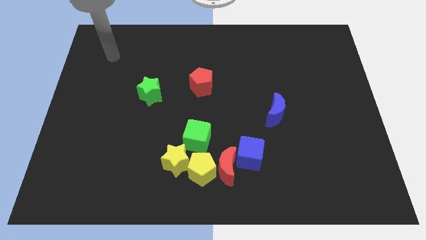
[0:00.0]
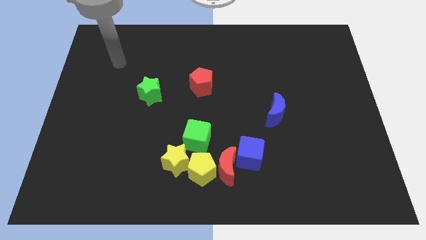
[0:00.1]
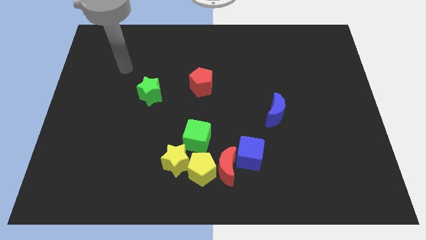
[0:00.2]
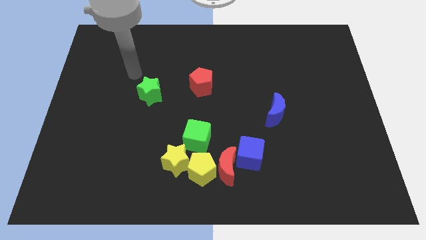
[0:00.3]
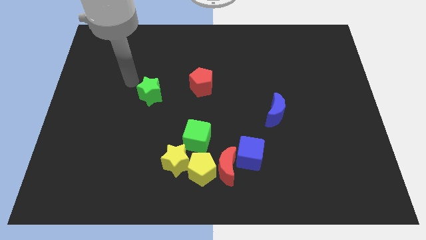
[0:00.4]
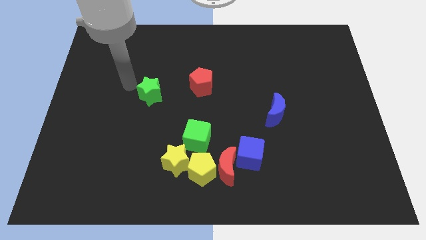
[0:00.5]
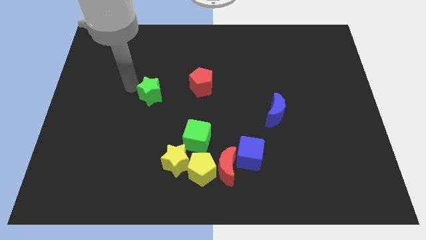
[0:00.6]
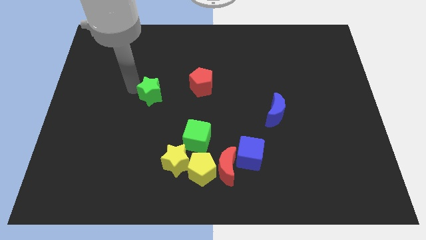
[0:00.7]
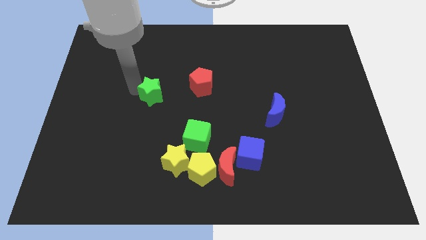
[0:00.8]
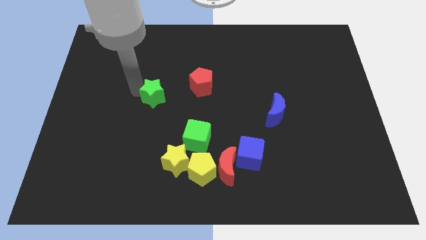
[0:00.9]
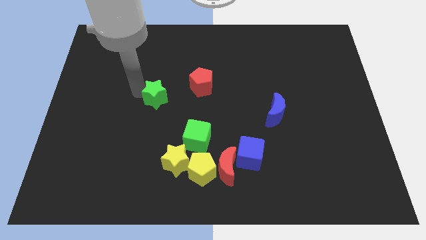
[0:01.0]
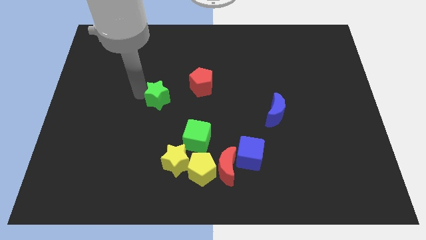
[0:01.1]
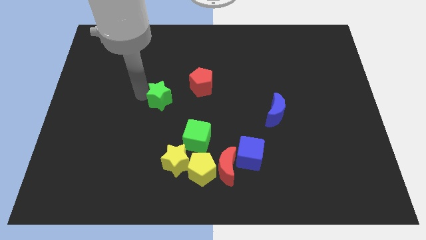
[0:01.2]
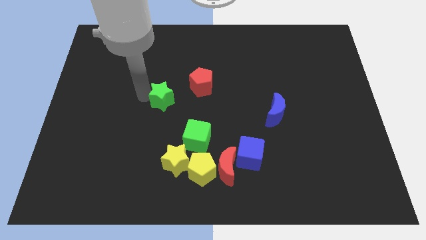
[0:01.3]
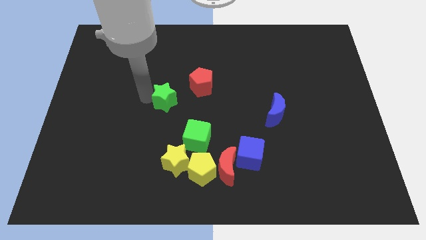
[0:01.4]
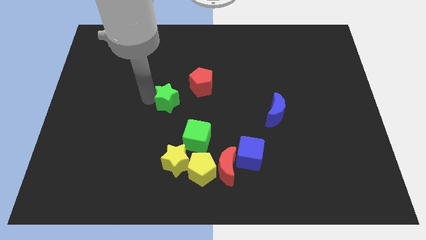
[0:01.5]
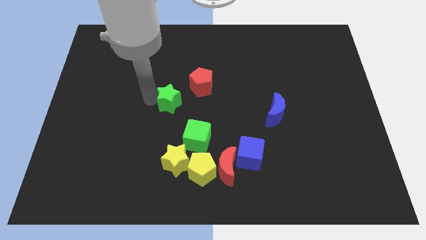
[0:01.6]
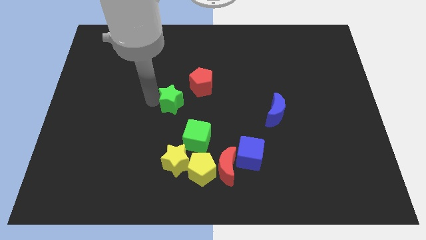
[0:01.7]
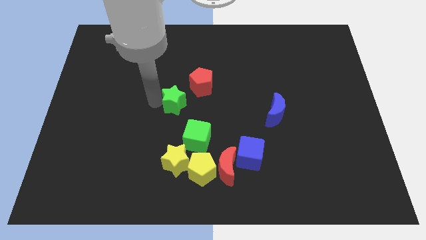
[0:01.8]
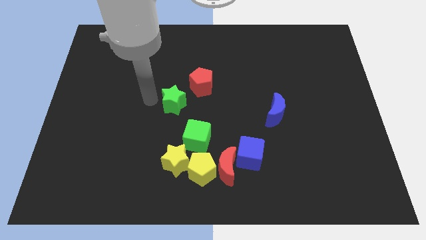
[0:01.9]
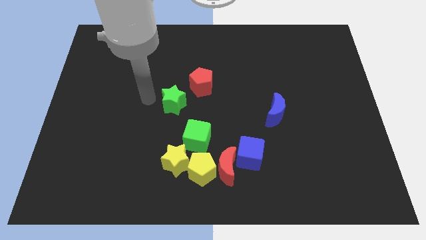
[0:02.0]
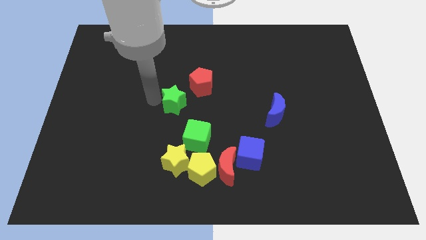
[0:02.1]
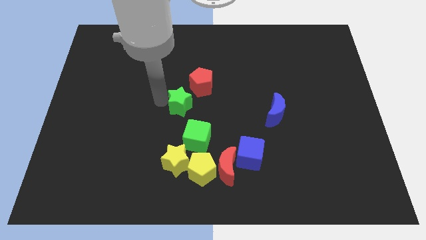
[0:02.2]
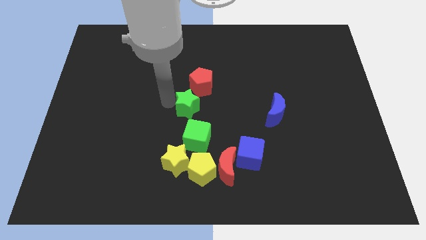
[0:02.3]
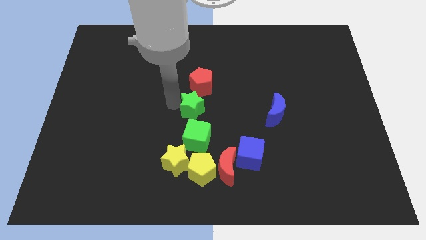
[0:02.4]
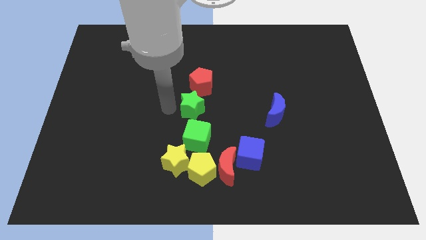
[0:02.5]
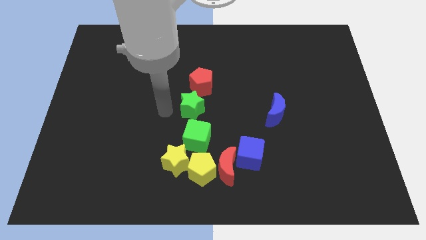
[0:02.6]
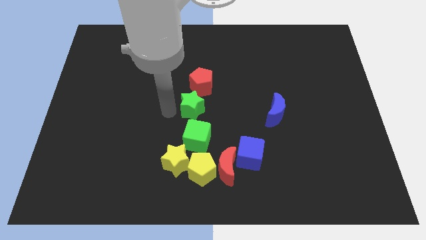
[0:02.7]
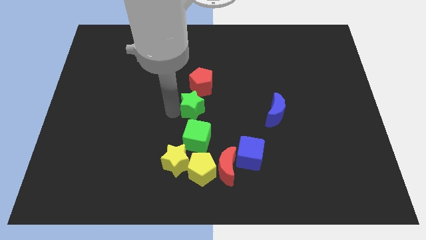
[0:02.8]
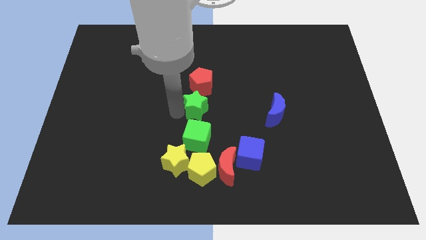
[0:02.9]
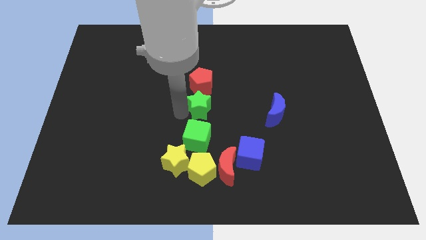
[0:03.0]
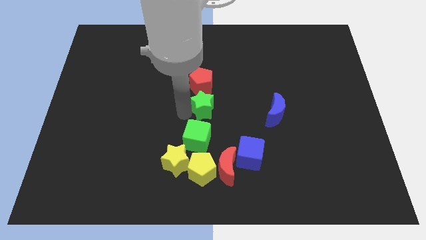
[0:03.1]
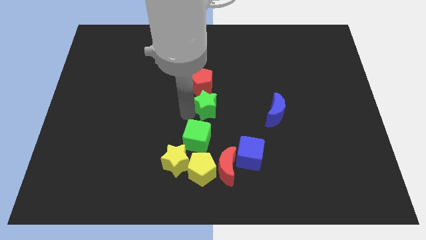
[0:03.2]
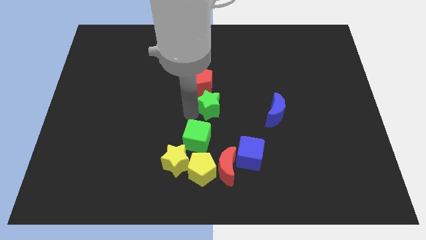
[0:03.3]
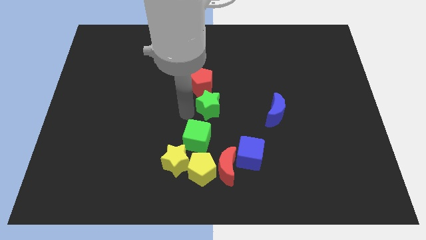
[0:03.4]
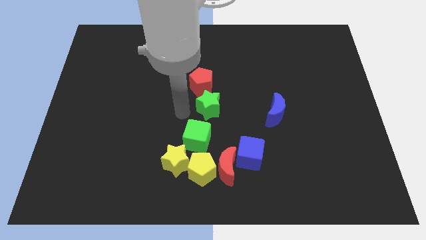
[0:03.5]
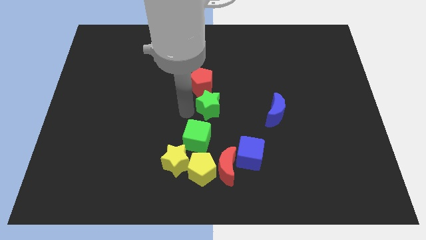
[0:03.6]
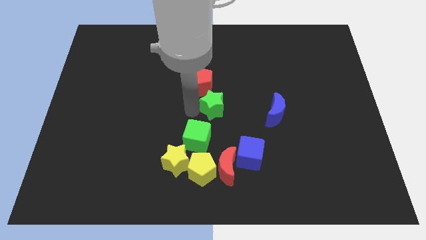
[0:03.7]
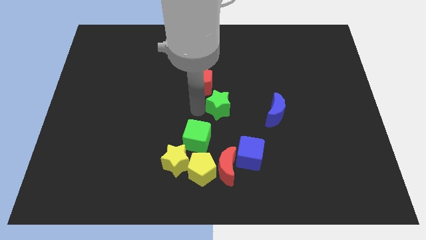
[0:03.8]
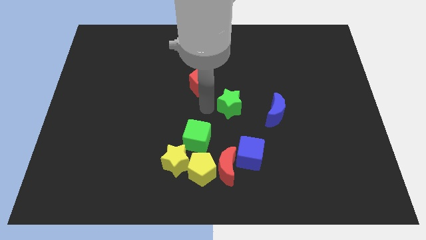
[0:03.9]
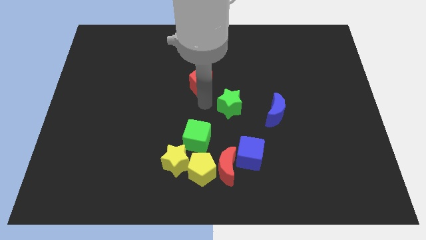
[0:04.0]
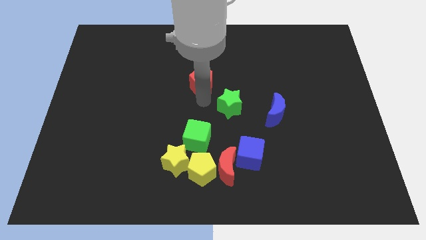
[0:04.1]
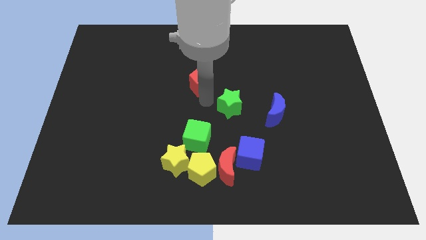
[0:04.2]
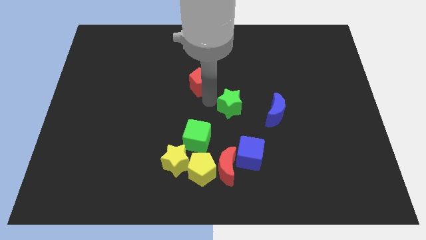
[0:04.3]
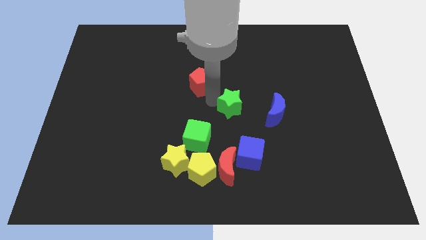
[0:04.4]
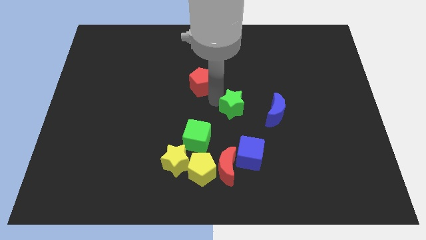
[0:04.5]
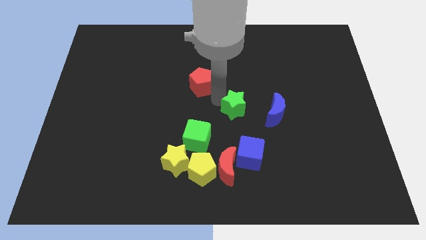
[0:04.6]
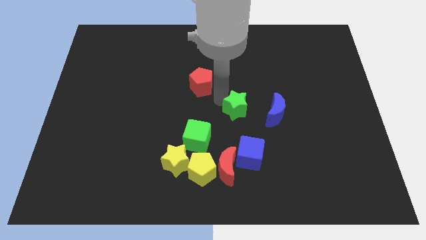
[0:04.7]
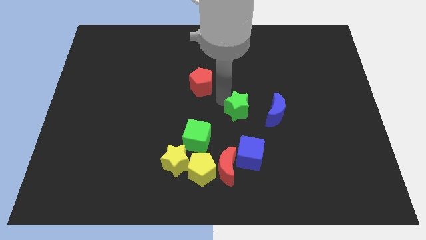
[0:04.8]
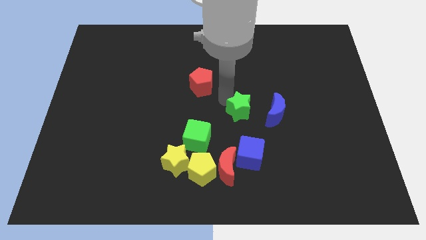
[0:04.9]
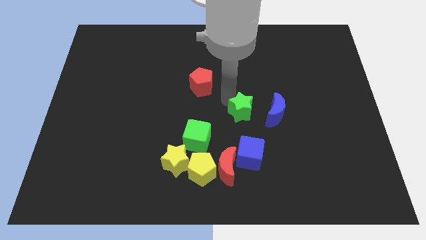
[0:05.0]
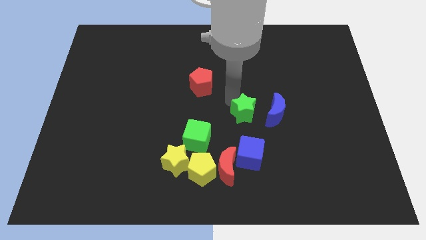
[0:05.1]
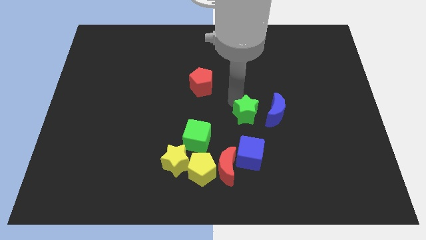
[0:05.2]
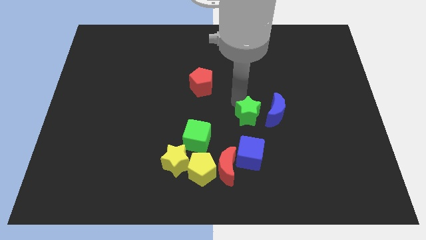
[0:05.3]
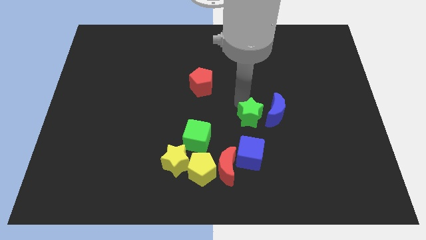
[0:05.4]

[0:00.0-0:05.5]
slide the green star towards the blue moon

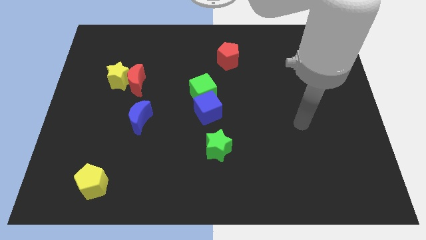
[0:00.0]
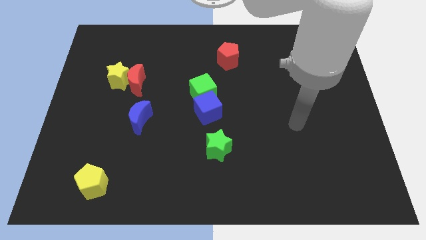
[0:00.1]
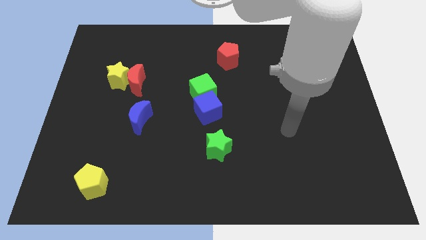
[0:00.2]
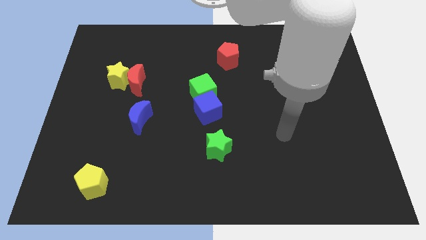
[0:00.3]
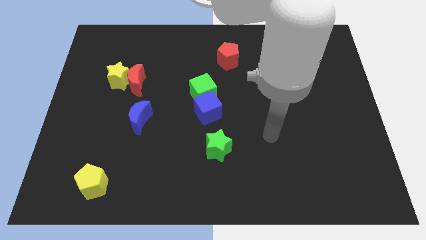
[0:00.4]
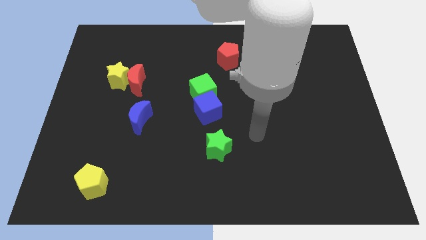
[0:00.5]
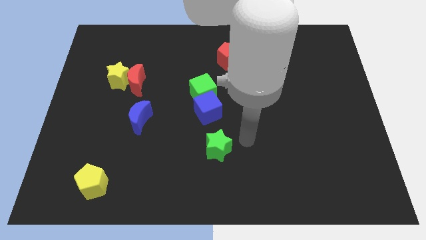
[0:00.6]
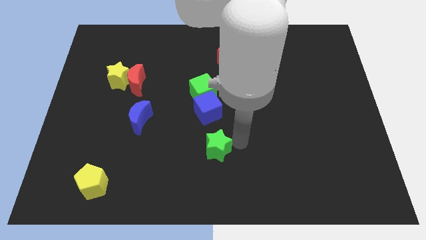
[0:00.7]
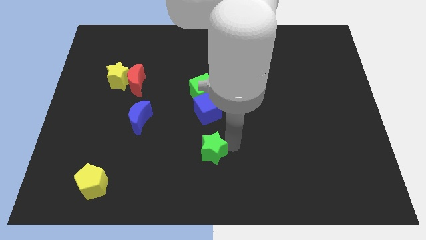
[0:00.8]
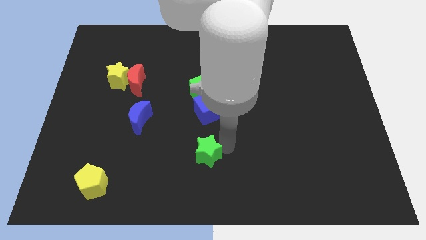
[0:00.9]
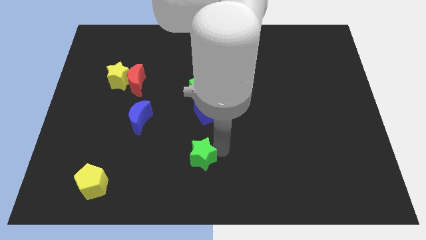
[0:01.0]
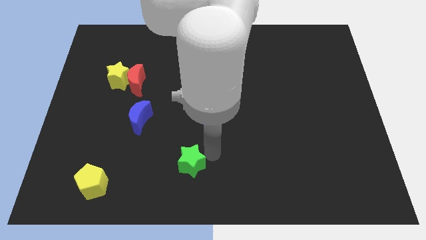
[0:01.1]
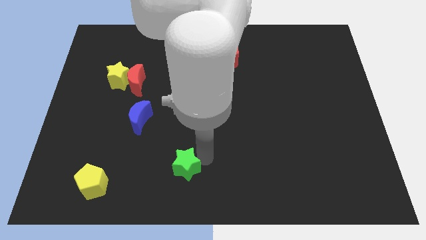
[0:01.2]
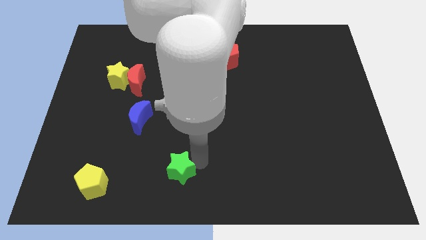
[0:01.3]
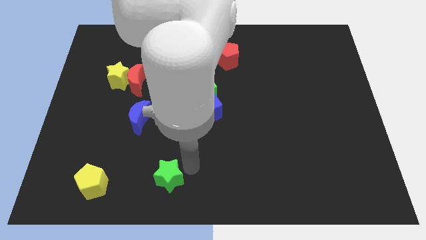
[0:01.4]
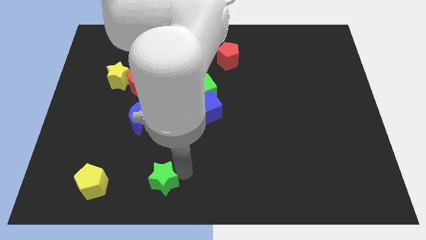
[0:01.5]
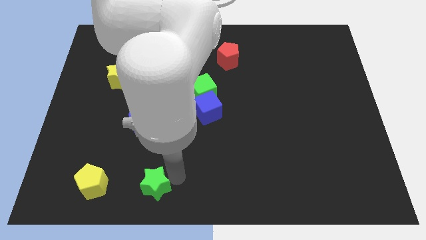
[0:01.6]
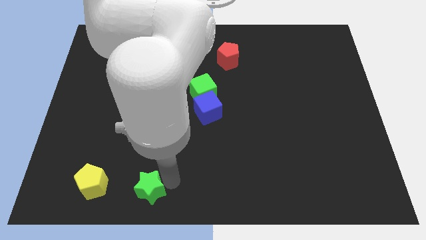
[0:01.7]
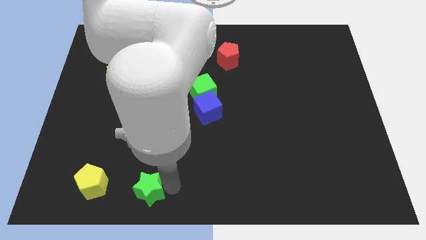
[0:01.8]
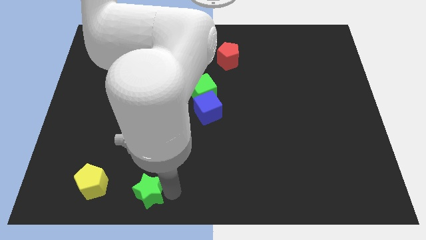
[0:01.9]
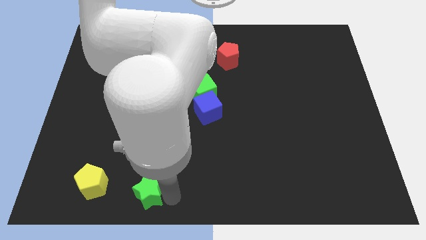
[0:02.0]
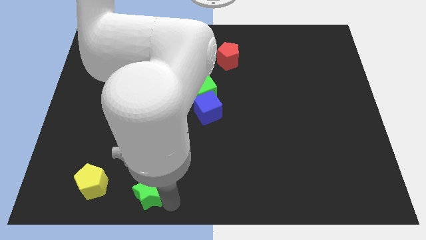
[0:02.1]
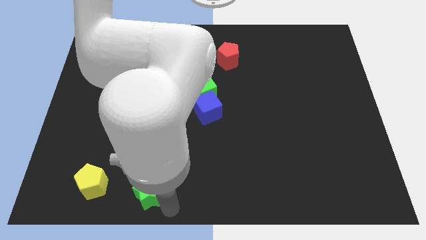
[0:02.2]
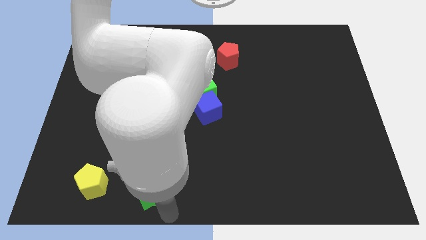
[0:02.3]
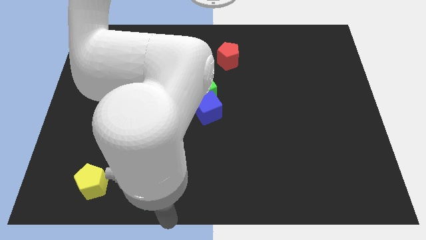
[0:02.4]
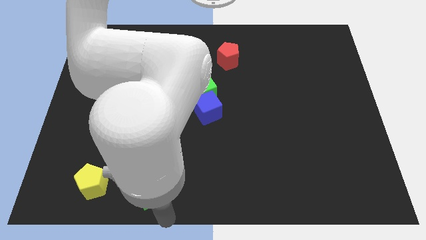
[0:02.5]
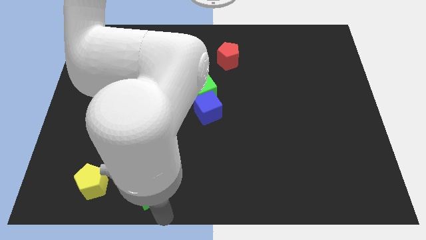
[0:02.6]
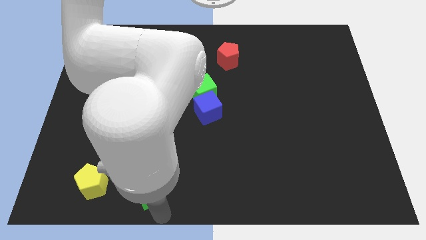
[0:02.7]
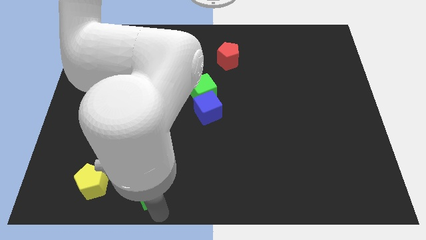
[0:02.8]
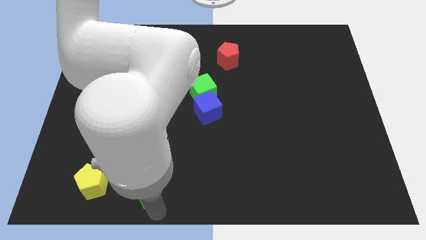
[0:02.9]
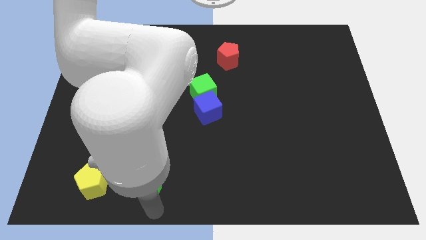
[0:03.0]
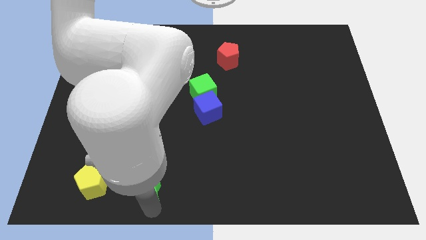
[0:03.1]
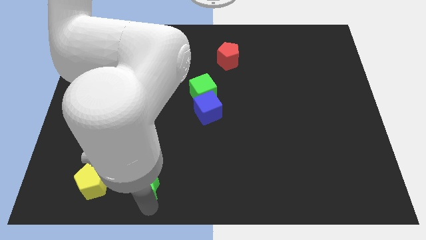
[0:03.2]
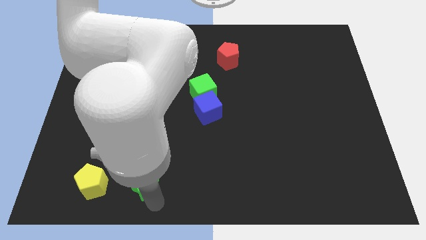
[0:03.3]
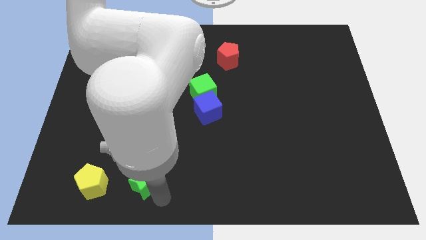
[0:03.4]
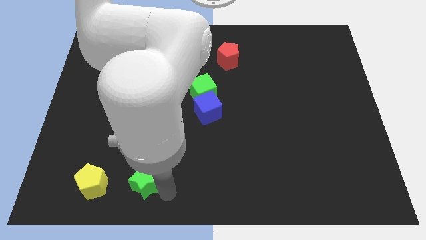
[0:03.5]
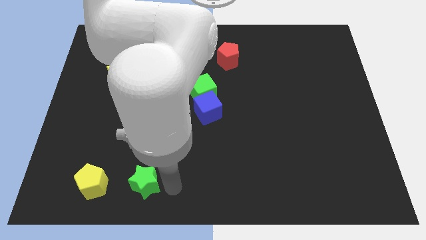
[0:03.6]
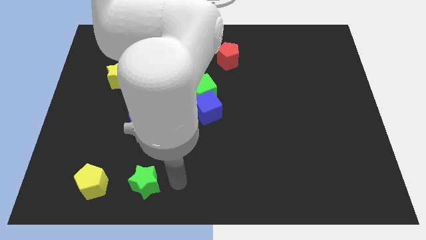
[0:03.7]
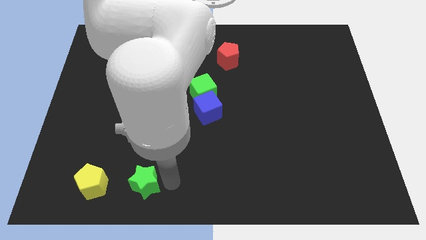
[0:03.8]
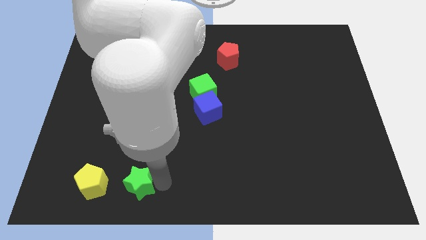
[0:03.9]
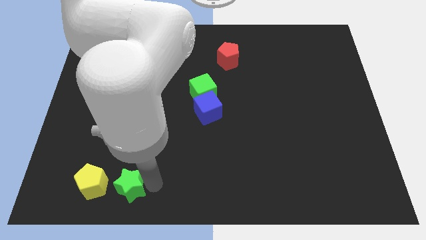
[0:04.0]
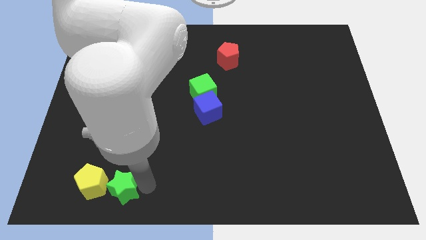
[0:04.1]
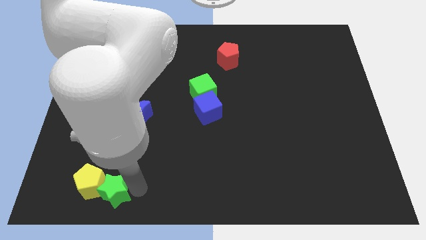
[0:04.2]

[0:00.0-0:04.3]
put the green star close to the yellow pentagon
